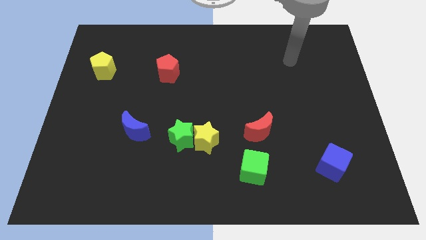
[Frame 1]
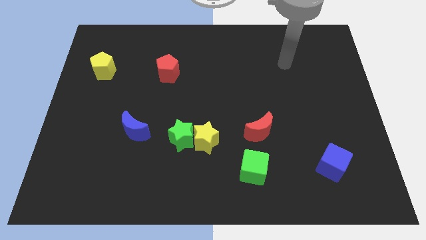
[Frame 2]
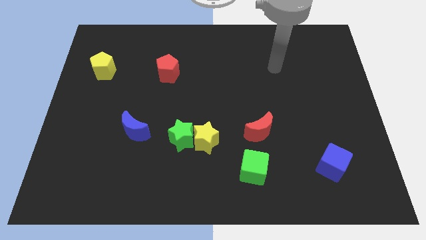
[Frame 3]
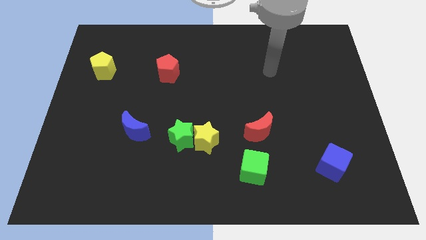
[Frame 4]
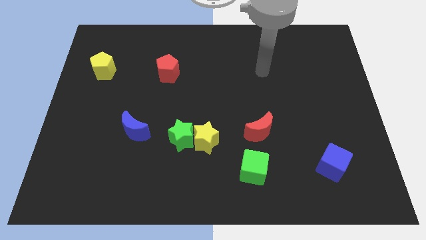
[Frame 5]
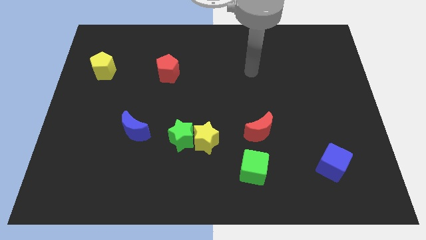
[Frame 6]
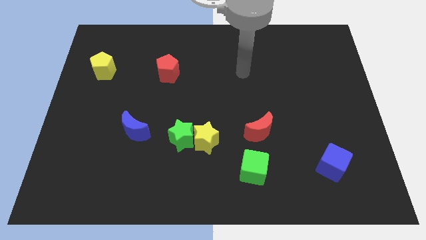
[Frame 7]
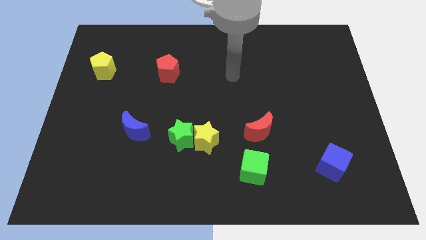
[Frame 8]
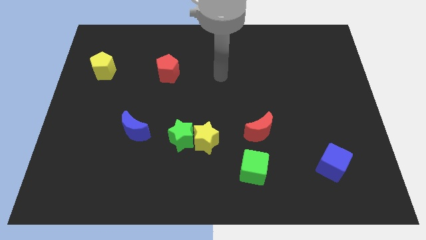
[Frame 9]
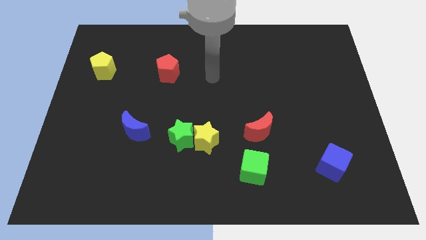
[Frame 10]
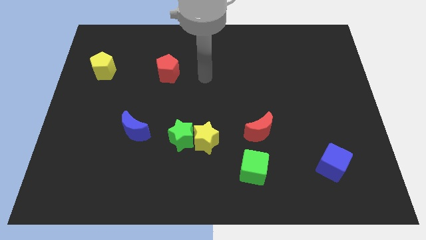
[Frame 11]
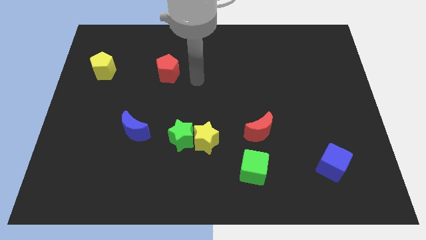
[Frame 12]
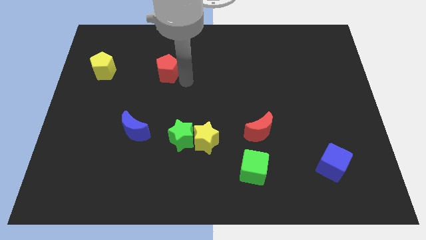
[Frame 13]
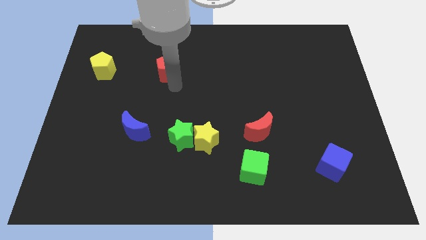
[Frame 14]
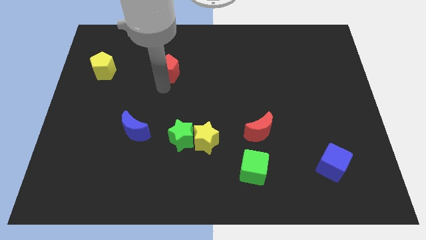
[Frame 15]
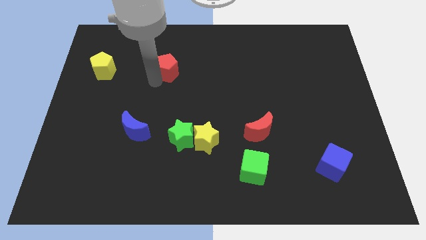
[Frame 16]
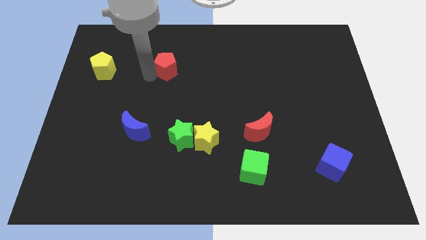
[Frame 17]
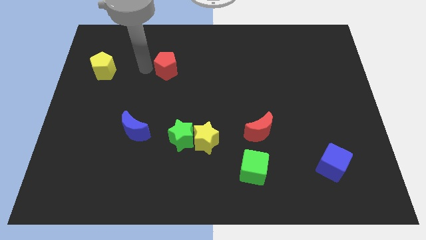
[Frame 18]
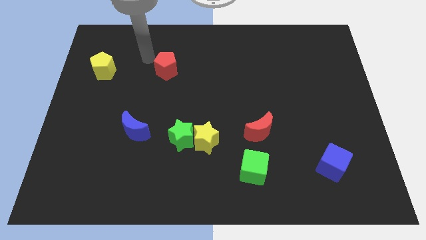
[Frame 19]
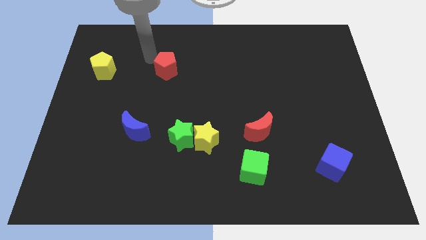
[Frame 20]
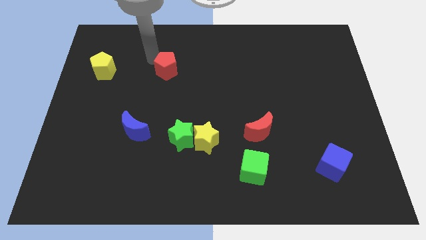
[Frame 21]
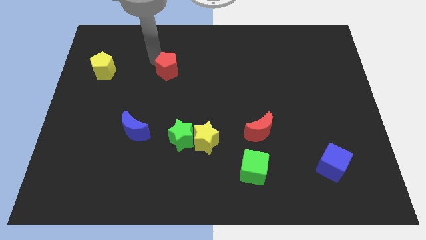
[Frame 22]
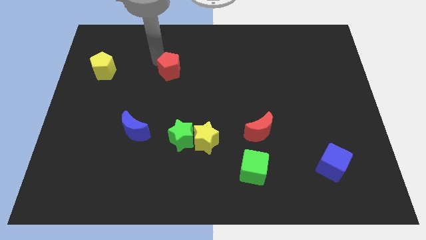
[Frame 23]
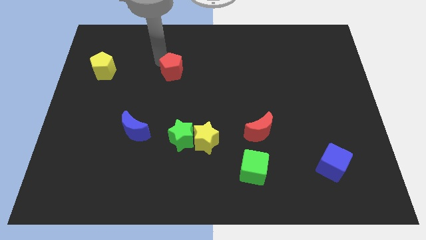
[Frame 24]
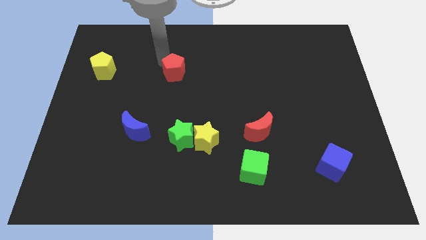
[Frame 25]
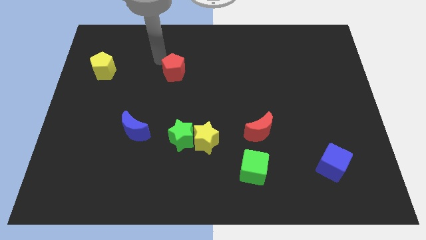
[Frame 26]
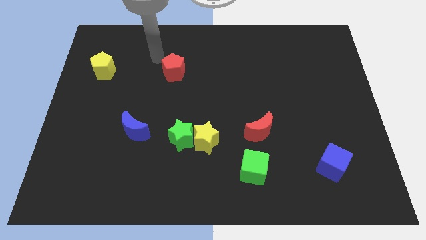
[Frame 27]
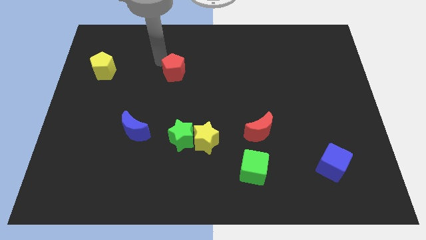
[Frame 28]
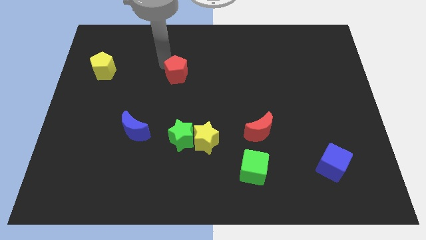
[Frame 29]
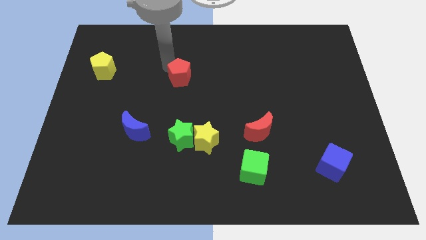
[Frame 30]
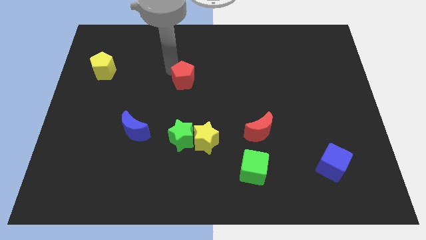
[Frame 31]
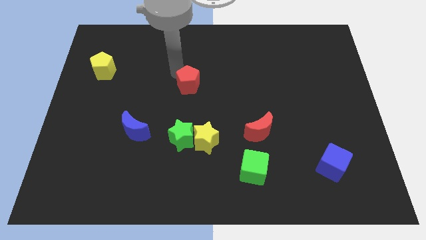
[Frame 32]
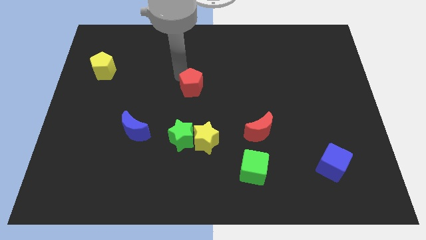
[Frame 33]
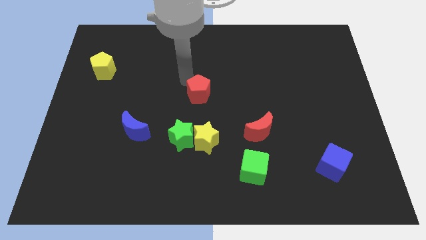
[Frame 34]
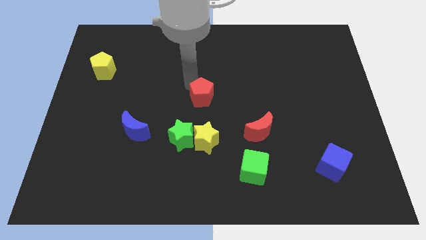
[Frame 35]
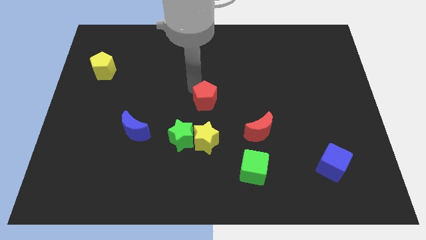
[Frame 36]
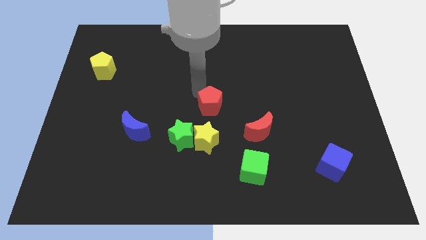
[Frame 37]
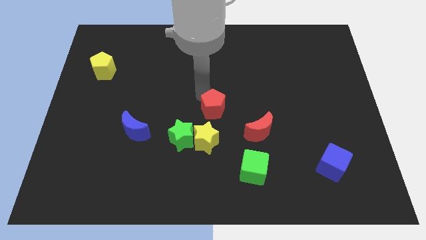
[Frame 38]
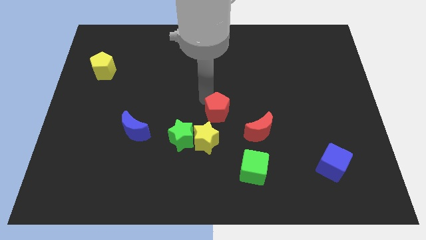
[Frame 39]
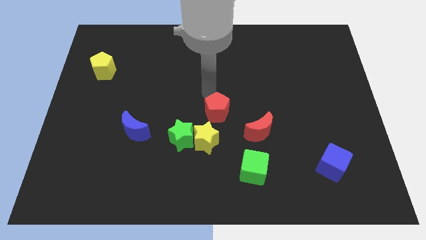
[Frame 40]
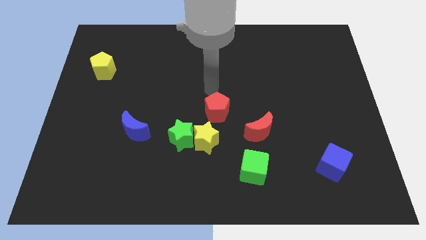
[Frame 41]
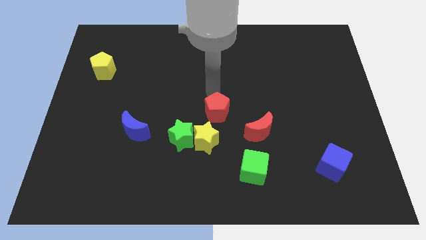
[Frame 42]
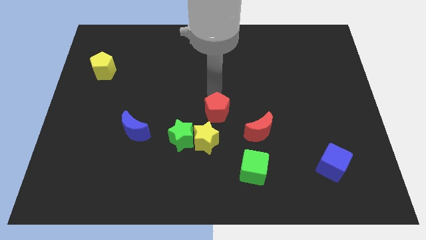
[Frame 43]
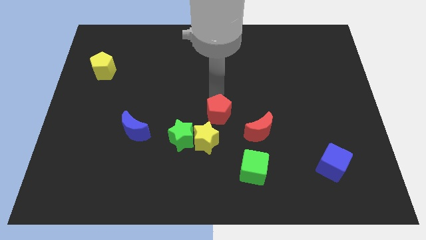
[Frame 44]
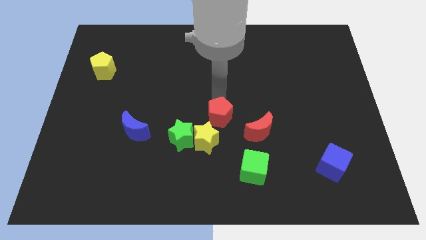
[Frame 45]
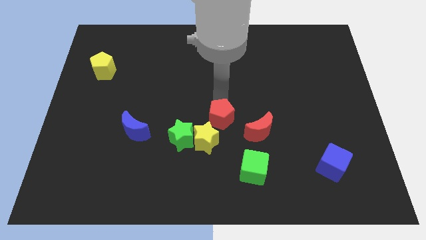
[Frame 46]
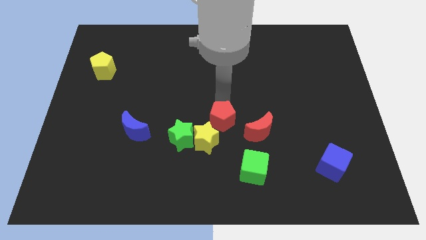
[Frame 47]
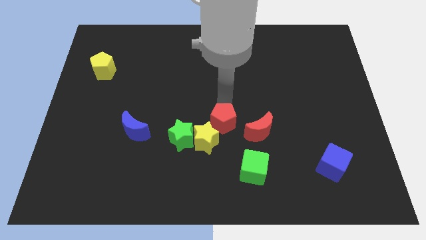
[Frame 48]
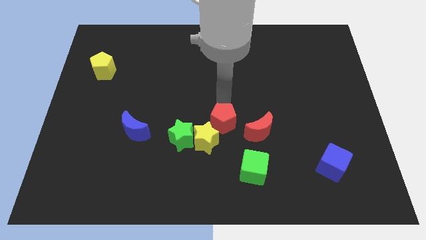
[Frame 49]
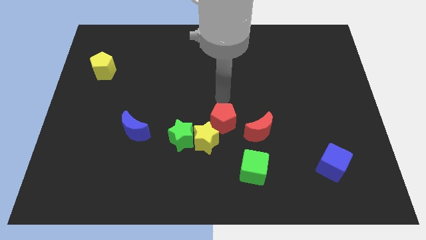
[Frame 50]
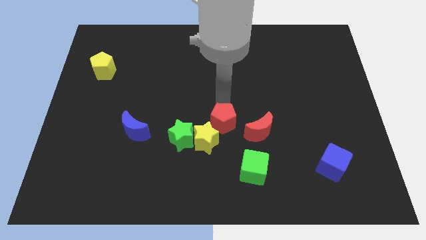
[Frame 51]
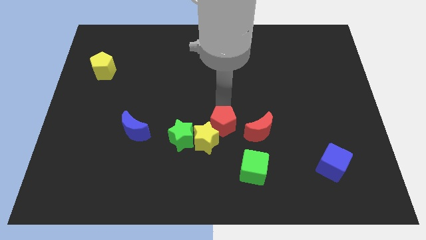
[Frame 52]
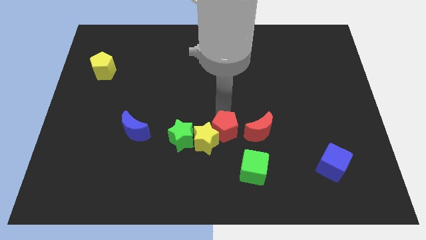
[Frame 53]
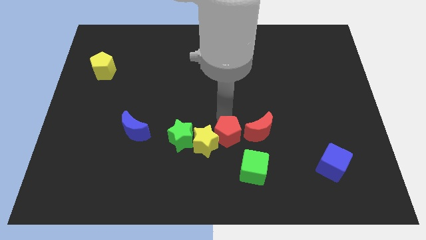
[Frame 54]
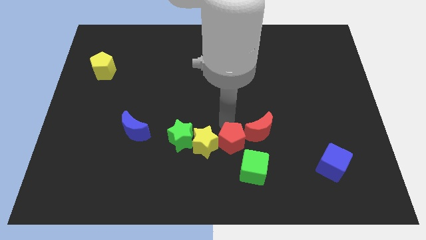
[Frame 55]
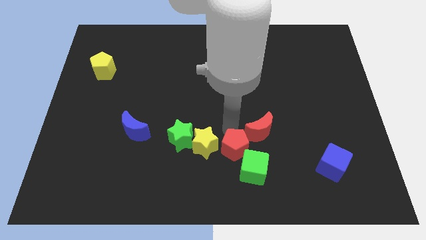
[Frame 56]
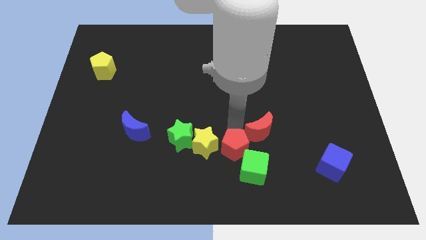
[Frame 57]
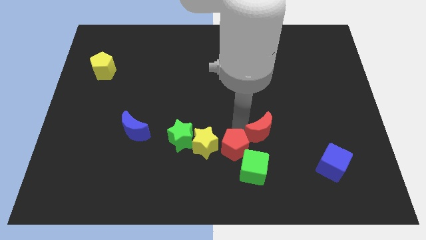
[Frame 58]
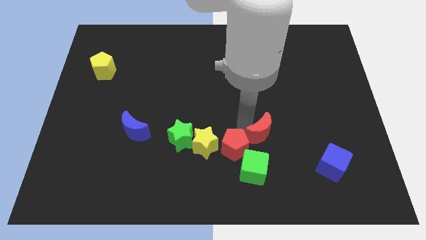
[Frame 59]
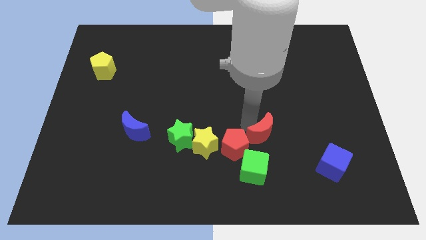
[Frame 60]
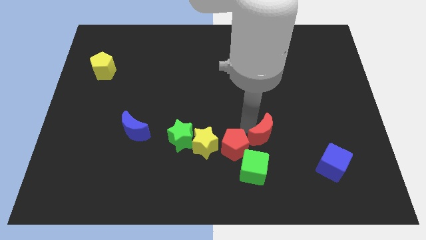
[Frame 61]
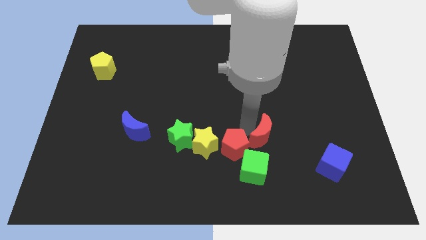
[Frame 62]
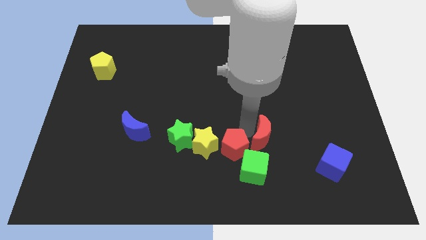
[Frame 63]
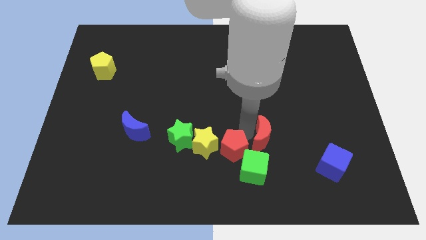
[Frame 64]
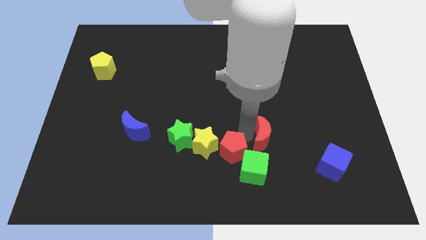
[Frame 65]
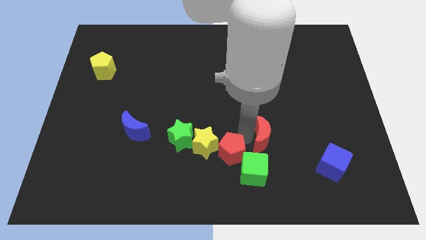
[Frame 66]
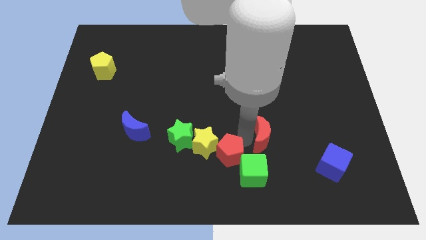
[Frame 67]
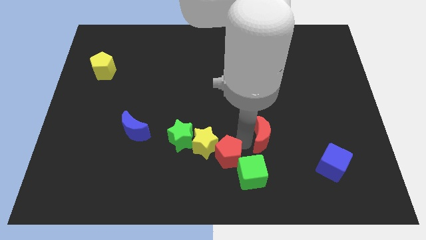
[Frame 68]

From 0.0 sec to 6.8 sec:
put the red pentagon to the bottom
